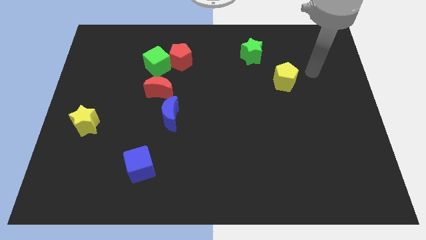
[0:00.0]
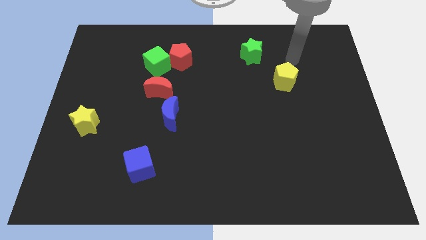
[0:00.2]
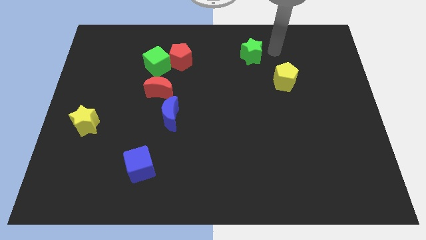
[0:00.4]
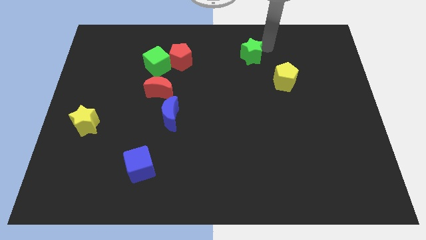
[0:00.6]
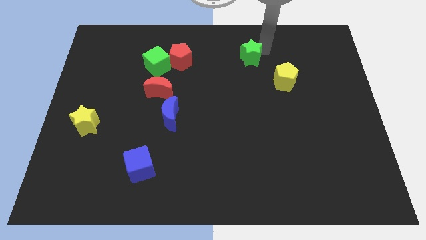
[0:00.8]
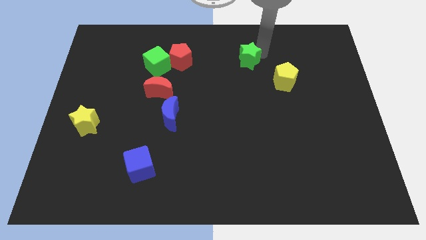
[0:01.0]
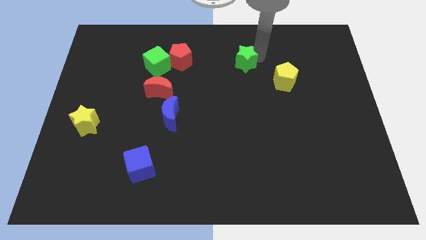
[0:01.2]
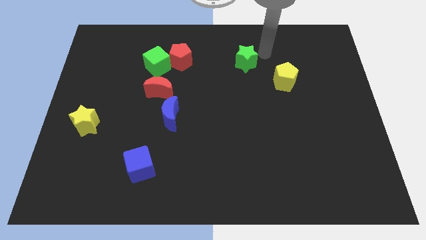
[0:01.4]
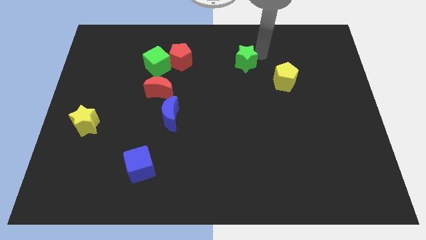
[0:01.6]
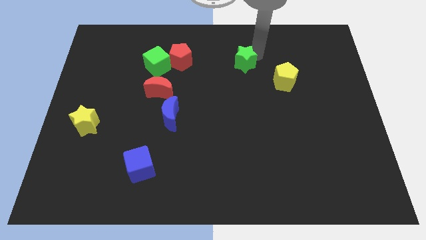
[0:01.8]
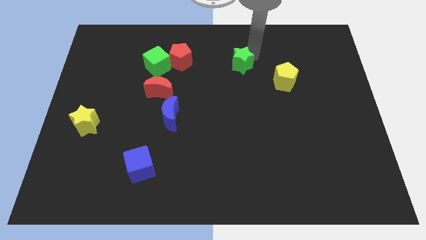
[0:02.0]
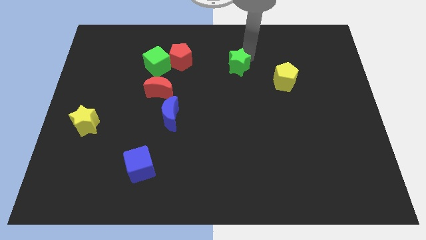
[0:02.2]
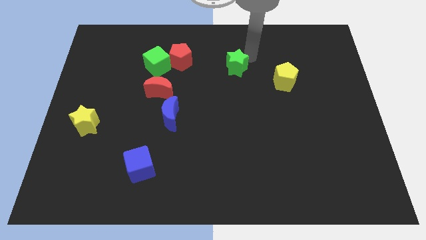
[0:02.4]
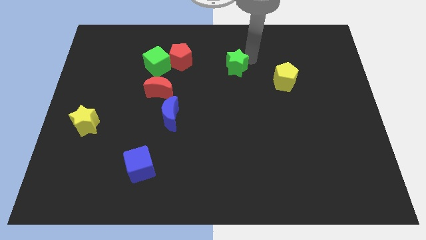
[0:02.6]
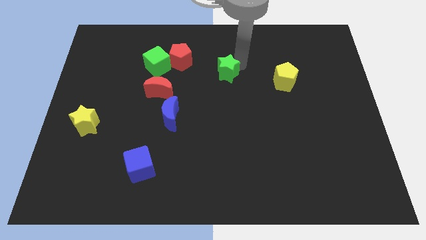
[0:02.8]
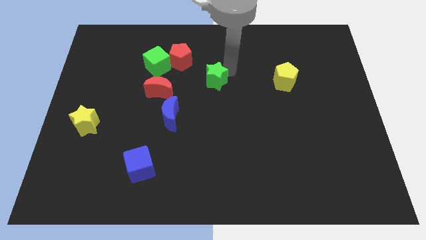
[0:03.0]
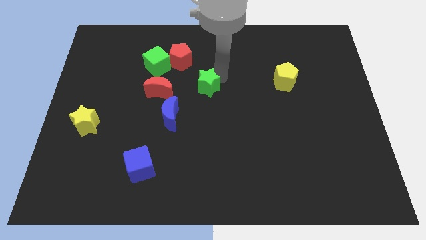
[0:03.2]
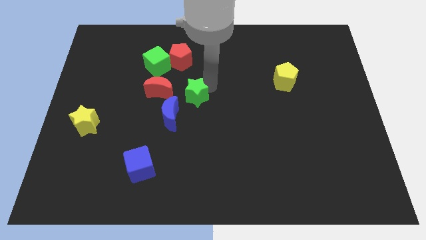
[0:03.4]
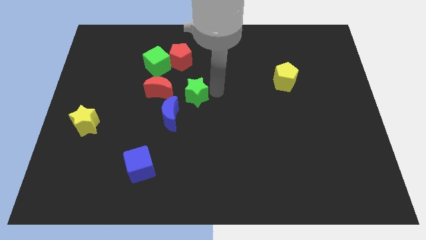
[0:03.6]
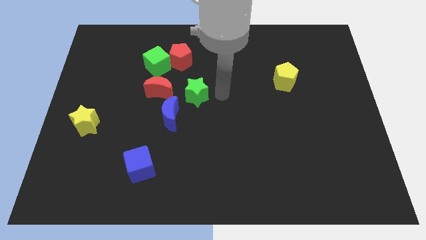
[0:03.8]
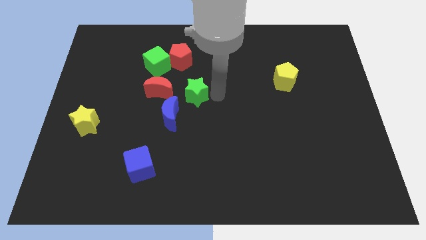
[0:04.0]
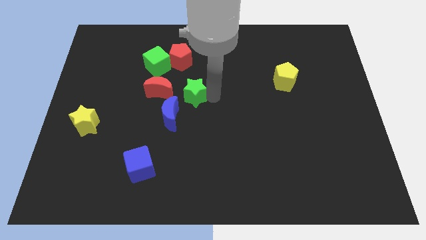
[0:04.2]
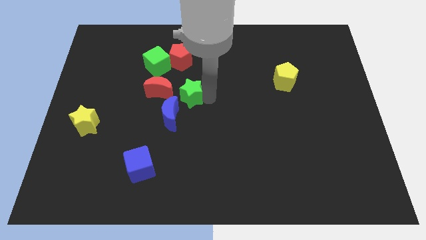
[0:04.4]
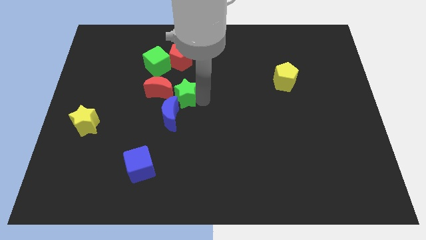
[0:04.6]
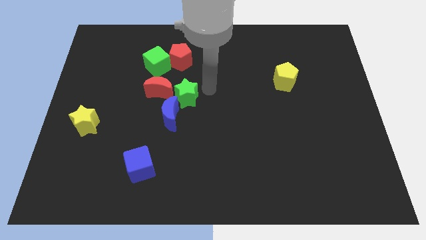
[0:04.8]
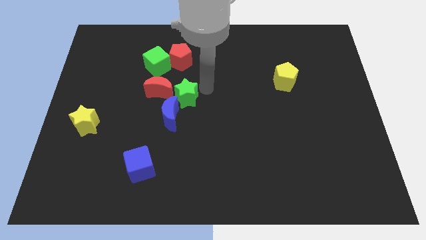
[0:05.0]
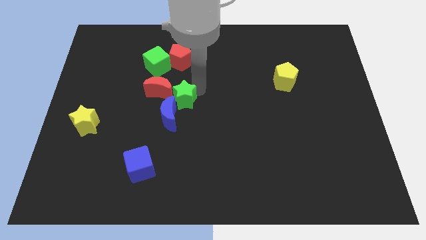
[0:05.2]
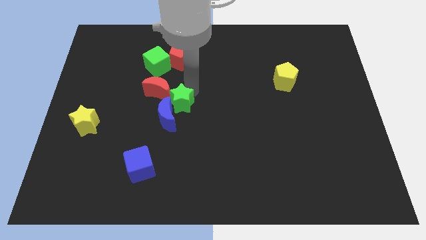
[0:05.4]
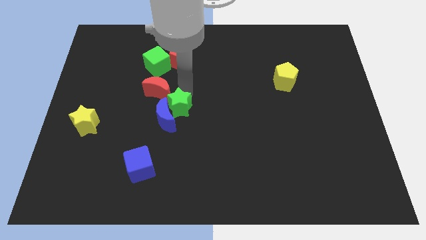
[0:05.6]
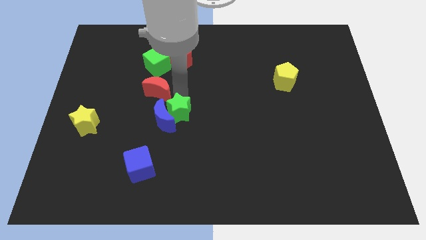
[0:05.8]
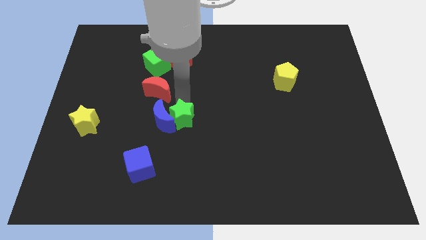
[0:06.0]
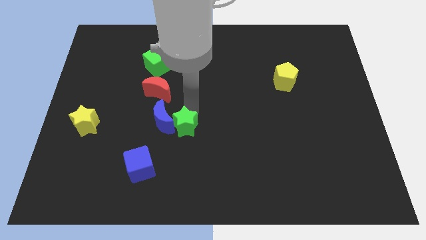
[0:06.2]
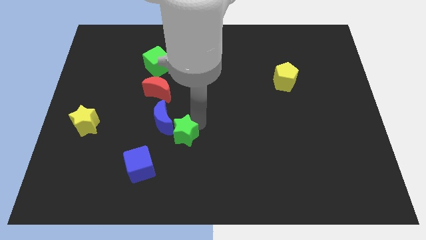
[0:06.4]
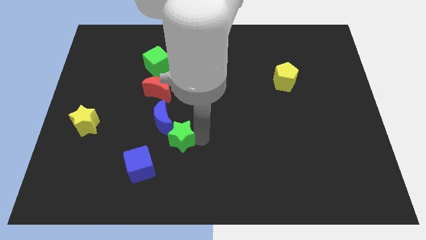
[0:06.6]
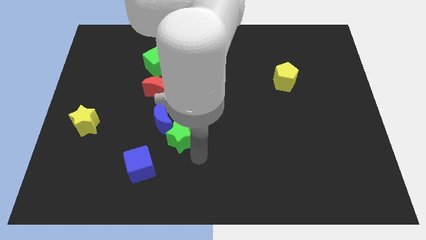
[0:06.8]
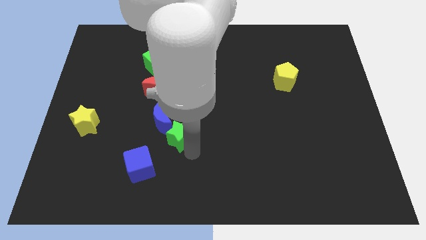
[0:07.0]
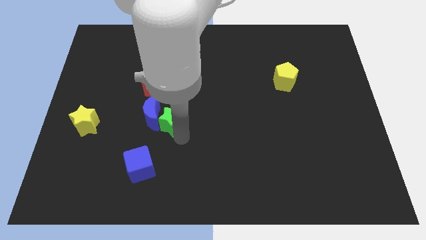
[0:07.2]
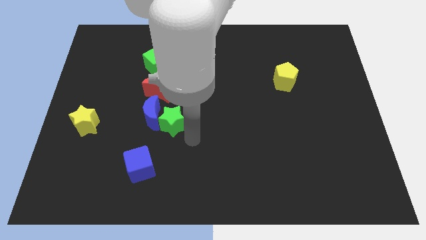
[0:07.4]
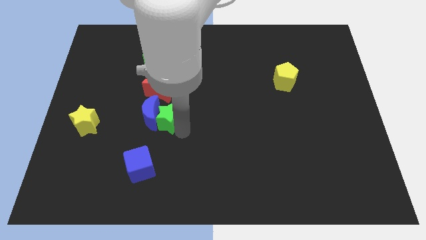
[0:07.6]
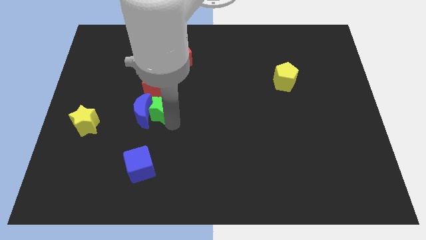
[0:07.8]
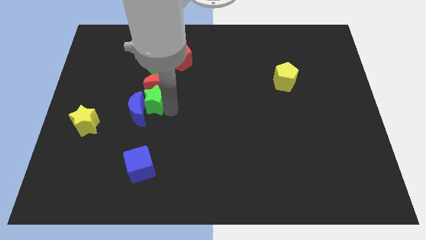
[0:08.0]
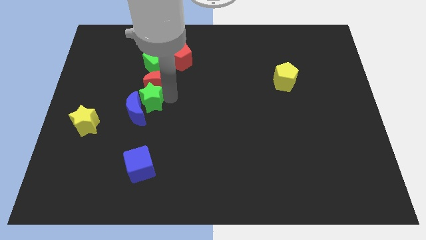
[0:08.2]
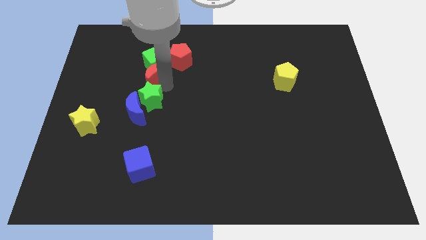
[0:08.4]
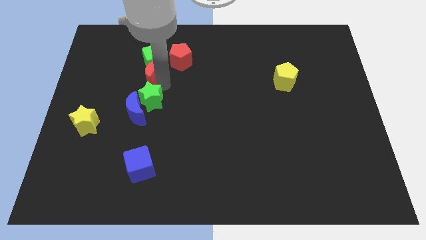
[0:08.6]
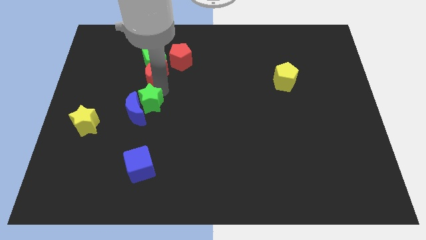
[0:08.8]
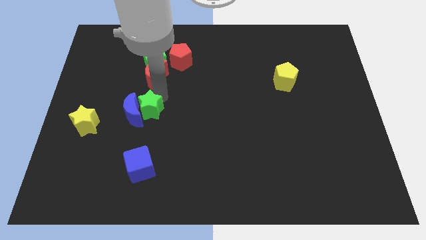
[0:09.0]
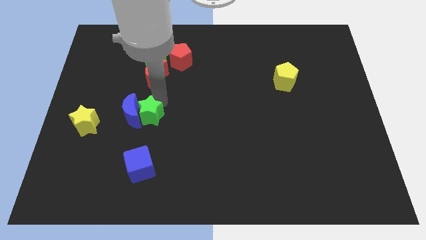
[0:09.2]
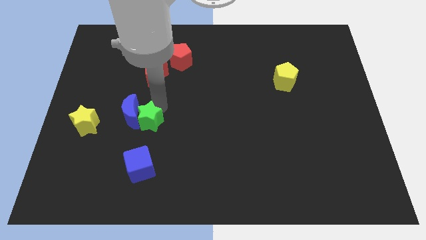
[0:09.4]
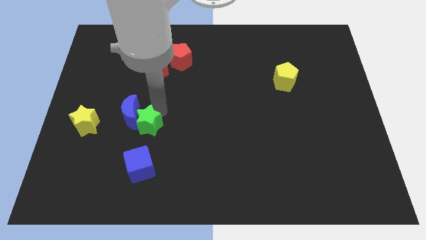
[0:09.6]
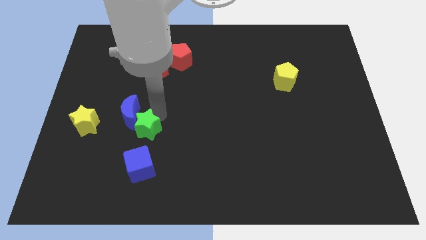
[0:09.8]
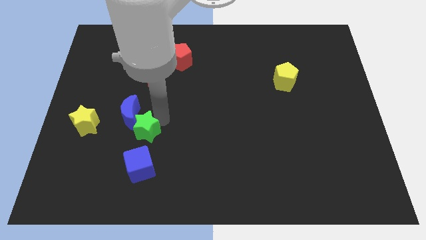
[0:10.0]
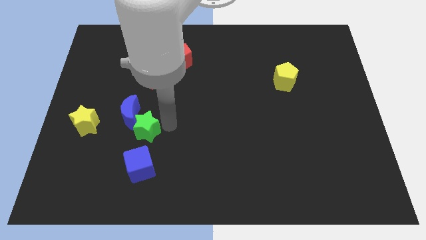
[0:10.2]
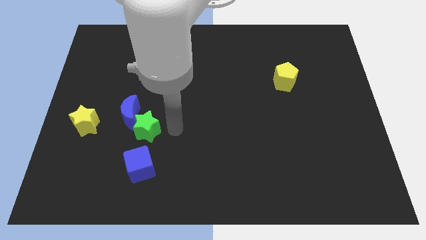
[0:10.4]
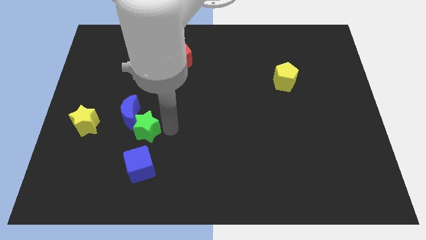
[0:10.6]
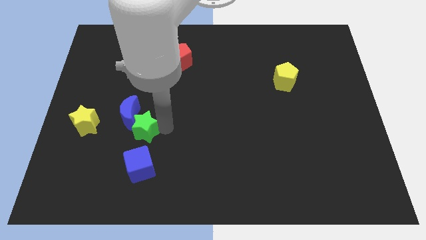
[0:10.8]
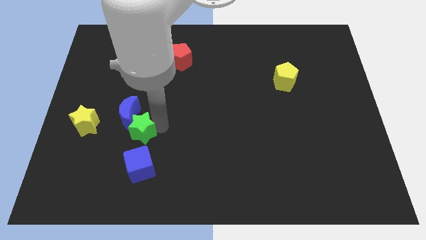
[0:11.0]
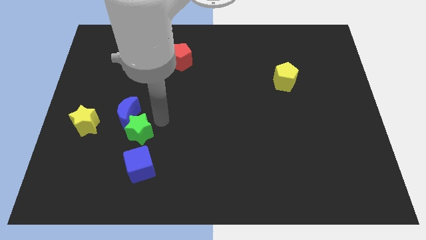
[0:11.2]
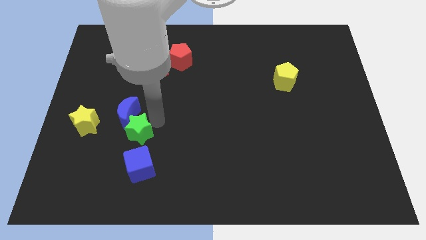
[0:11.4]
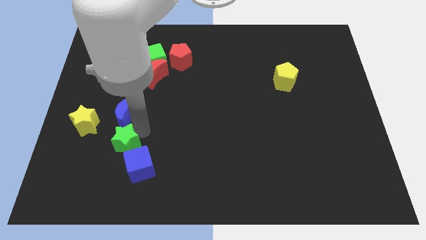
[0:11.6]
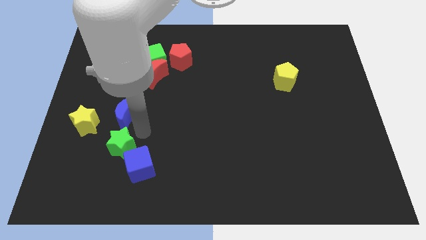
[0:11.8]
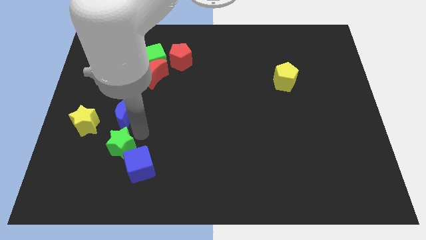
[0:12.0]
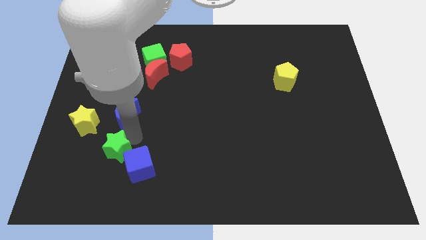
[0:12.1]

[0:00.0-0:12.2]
move the green star to the left of the blue cube

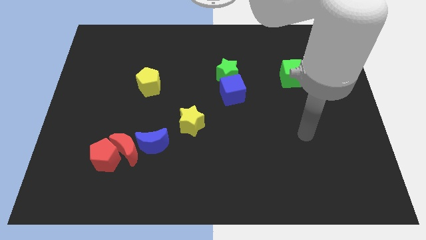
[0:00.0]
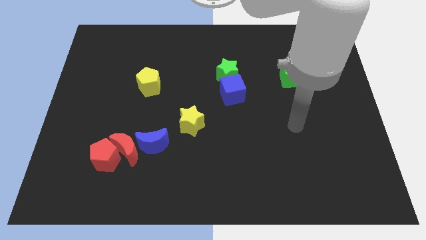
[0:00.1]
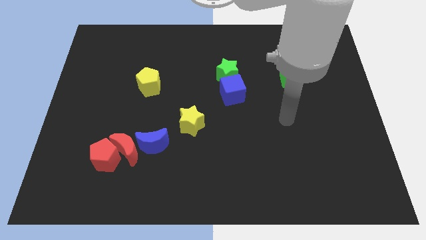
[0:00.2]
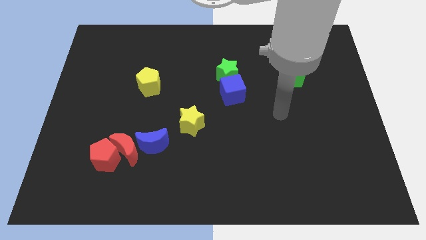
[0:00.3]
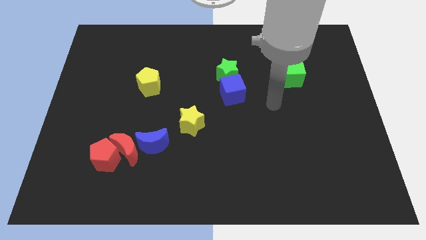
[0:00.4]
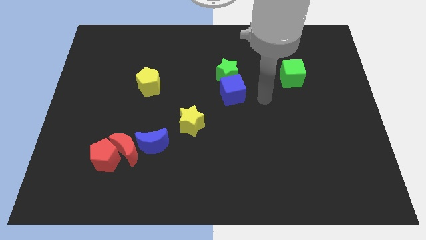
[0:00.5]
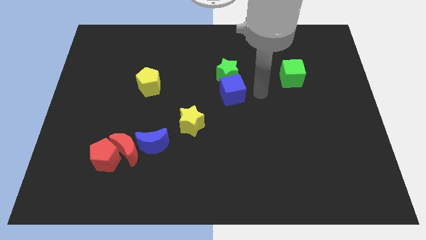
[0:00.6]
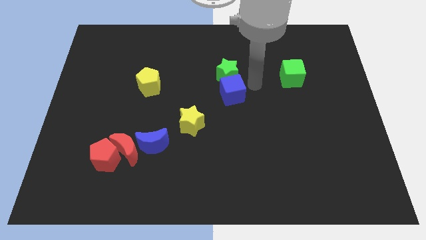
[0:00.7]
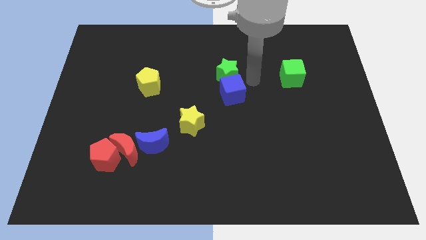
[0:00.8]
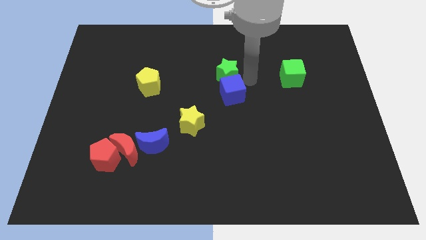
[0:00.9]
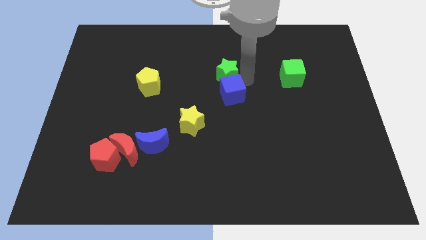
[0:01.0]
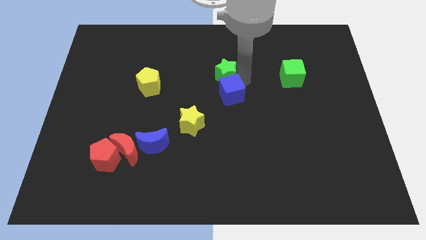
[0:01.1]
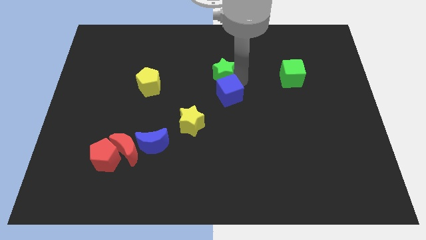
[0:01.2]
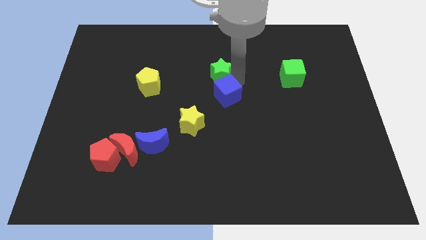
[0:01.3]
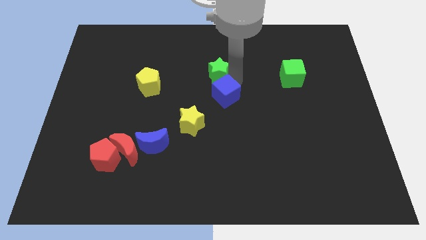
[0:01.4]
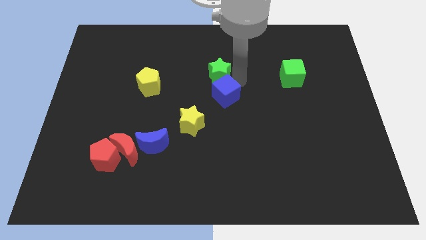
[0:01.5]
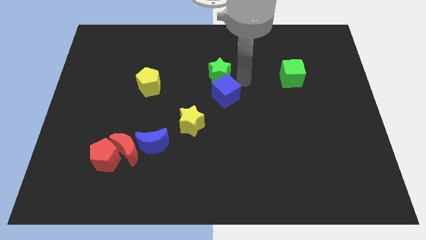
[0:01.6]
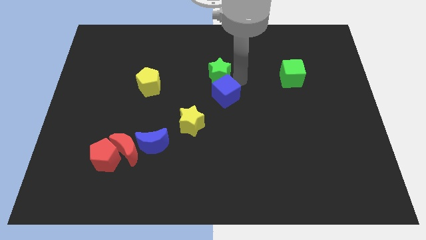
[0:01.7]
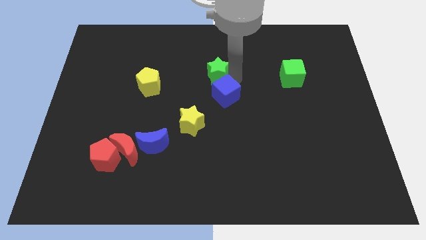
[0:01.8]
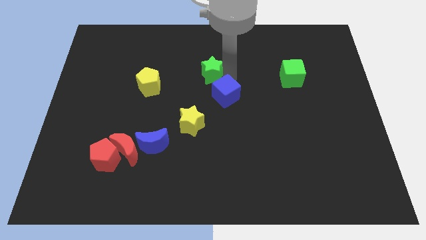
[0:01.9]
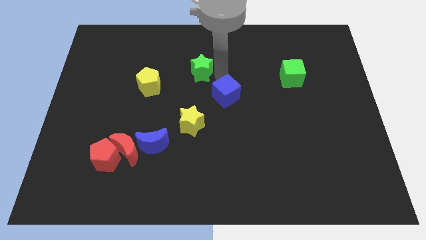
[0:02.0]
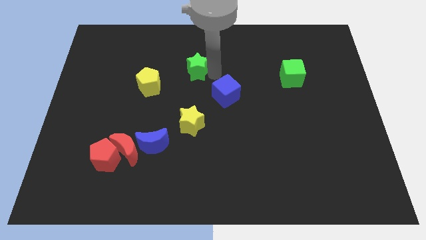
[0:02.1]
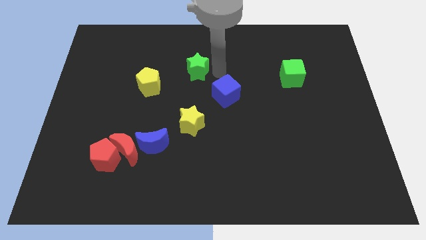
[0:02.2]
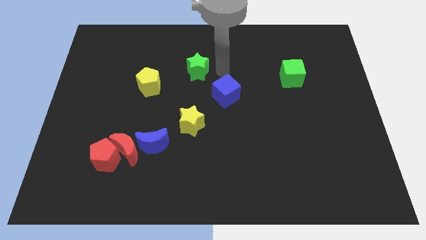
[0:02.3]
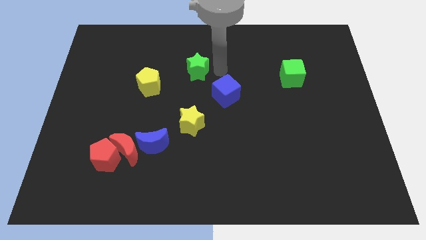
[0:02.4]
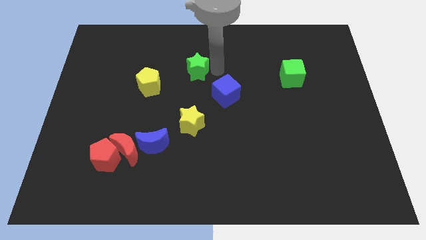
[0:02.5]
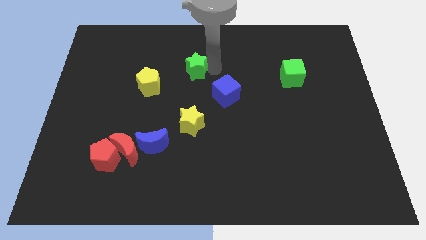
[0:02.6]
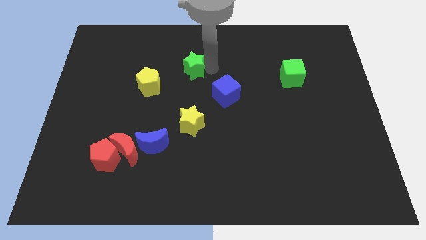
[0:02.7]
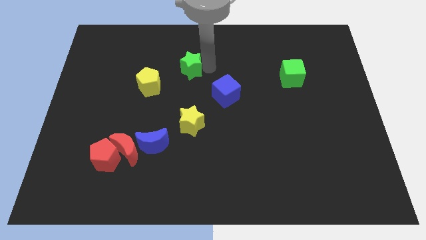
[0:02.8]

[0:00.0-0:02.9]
put the green star diagonally up and to the right of the yellow pentagon
